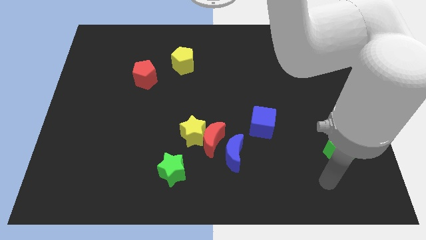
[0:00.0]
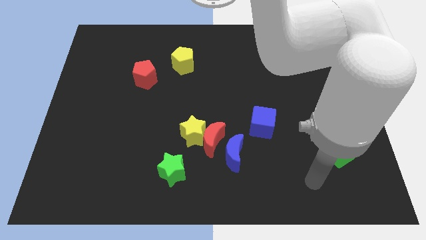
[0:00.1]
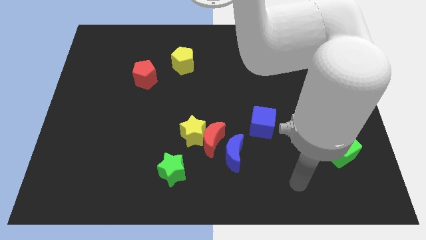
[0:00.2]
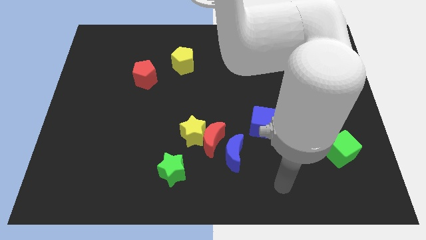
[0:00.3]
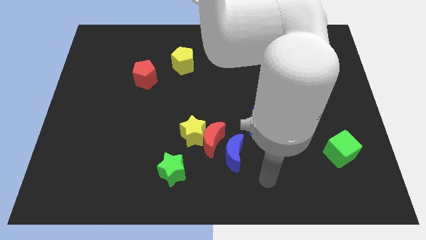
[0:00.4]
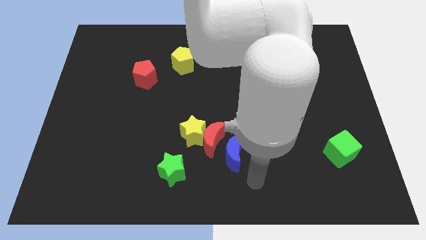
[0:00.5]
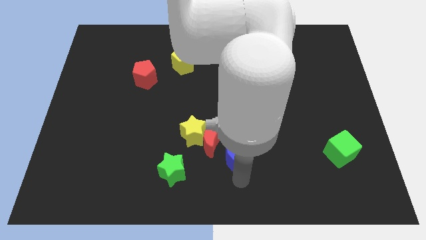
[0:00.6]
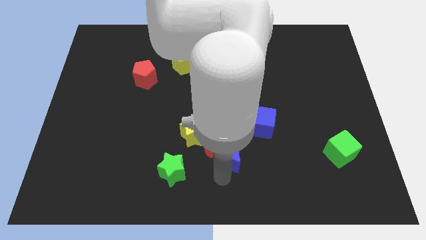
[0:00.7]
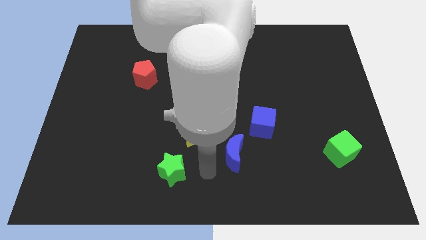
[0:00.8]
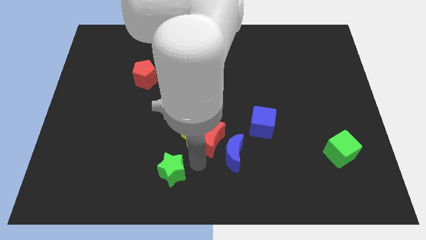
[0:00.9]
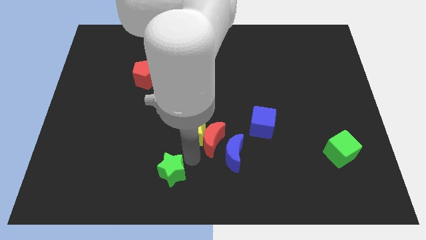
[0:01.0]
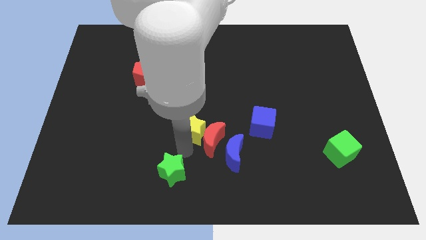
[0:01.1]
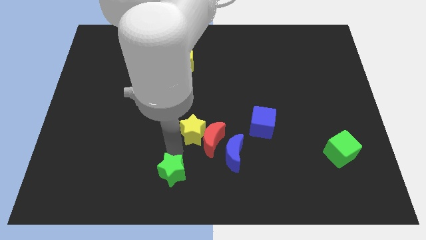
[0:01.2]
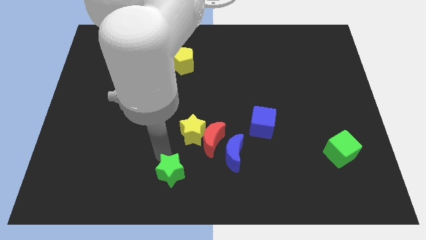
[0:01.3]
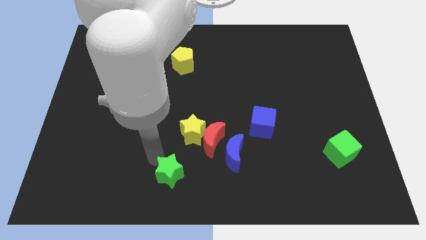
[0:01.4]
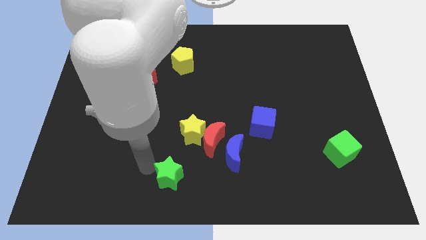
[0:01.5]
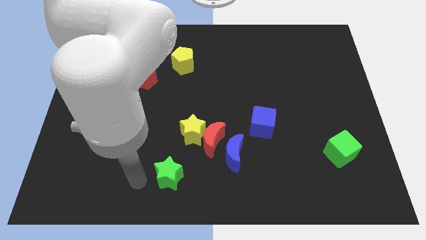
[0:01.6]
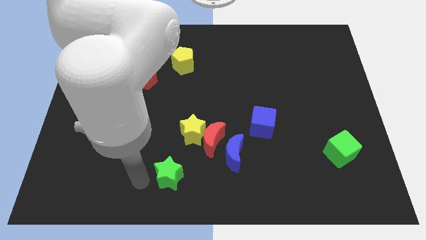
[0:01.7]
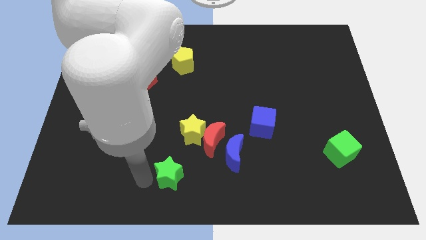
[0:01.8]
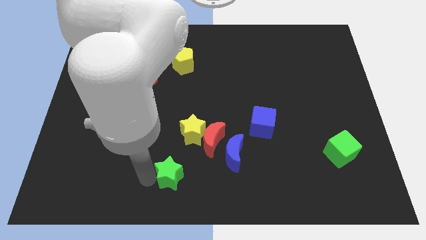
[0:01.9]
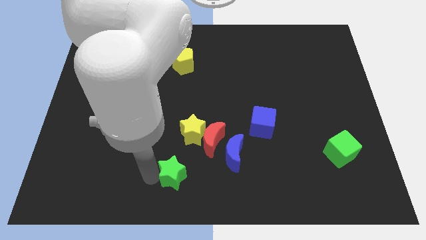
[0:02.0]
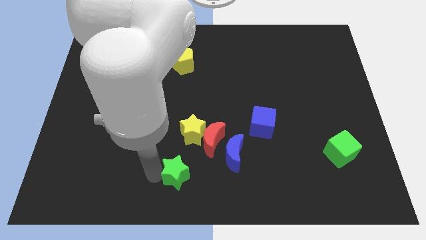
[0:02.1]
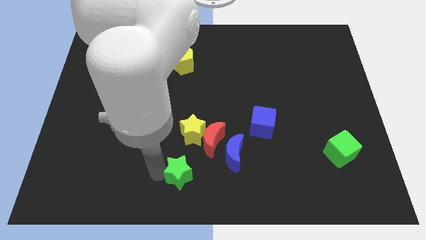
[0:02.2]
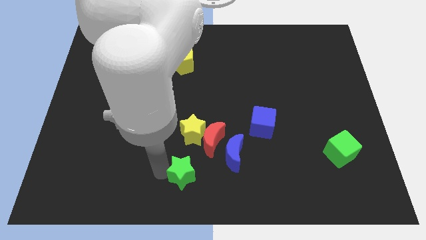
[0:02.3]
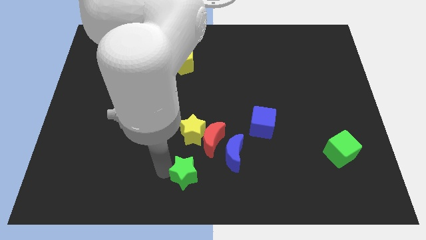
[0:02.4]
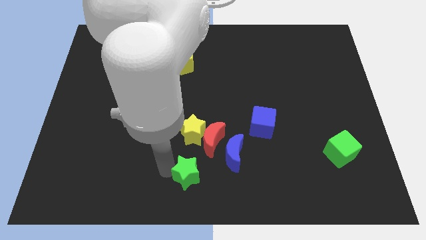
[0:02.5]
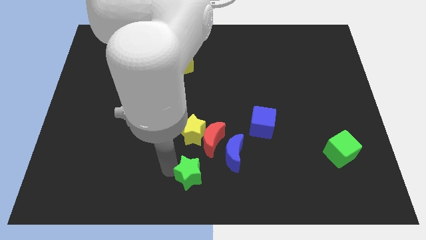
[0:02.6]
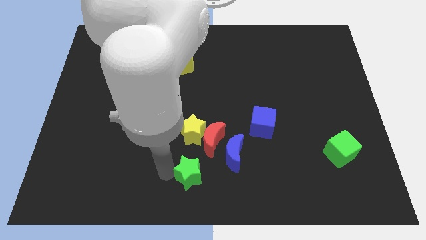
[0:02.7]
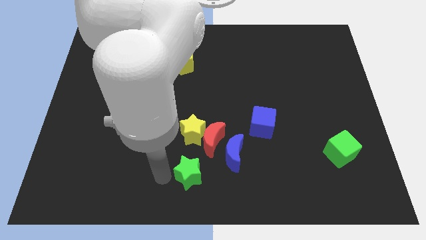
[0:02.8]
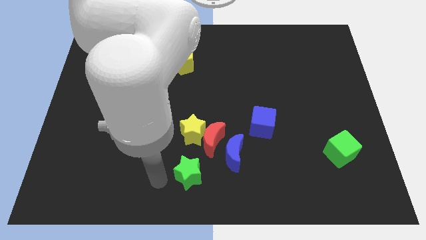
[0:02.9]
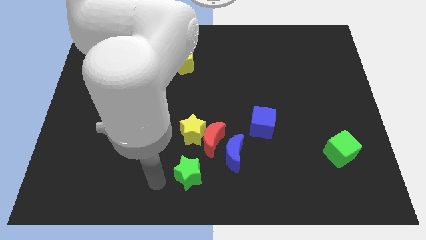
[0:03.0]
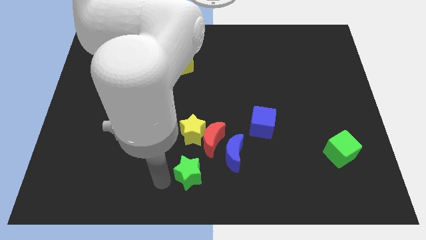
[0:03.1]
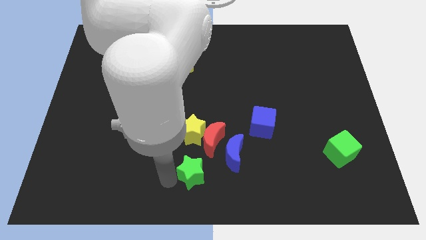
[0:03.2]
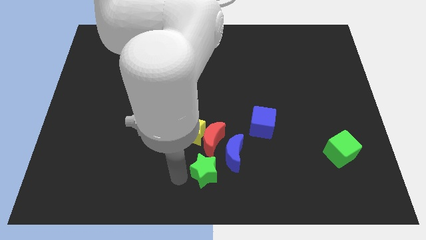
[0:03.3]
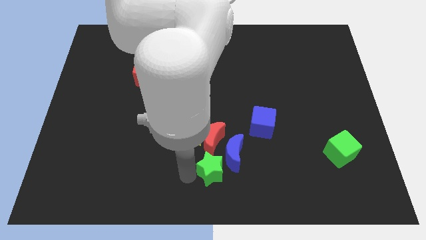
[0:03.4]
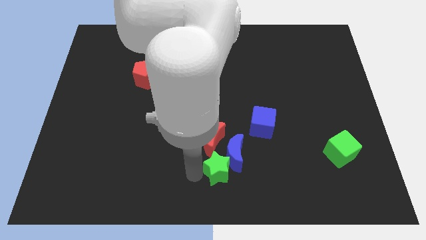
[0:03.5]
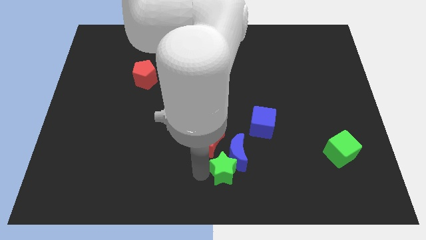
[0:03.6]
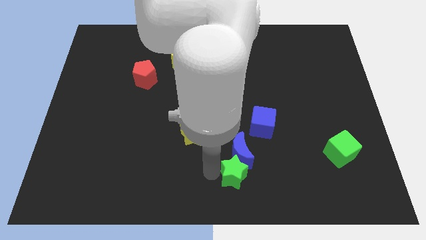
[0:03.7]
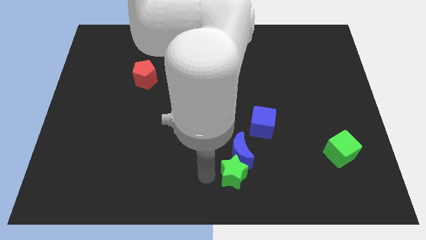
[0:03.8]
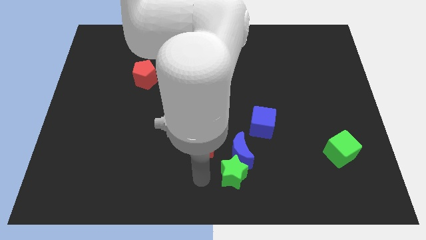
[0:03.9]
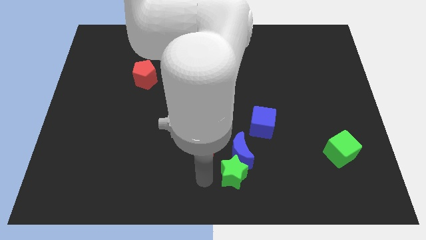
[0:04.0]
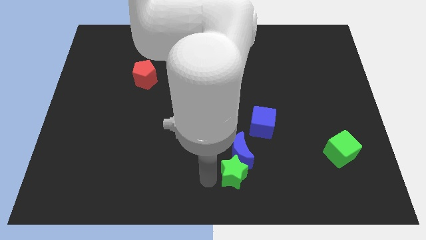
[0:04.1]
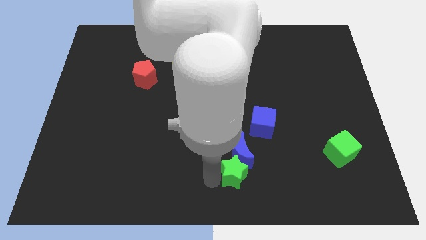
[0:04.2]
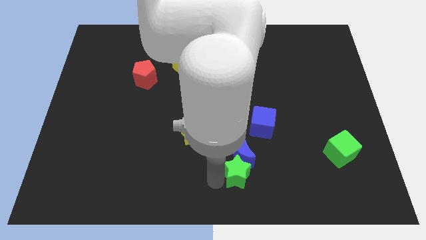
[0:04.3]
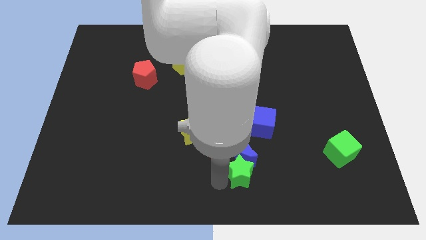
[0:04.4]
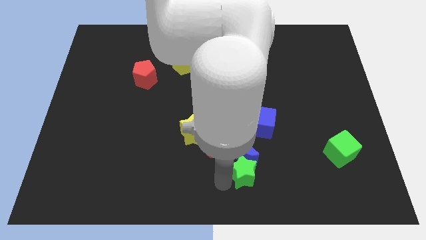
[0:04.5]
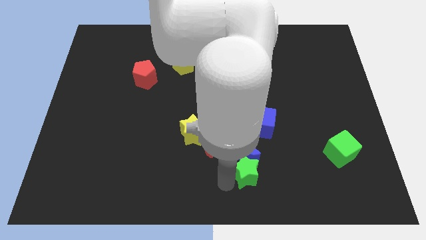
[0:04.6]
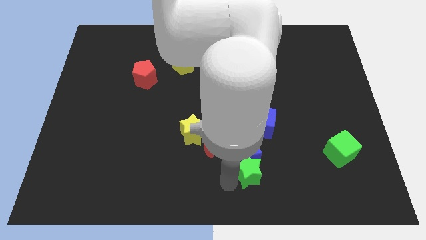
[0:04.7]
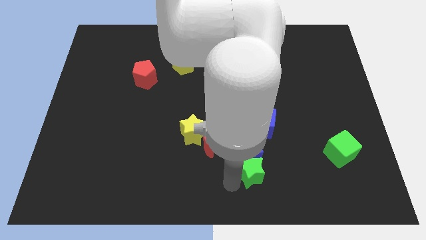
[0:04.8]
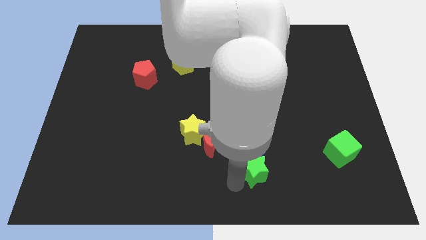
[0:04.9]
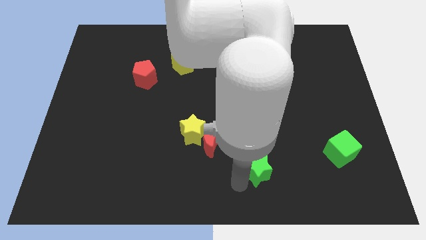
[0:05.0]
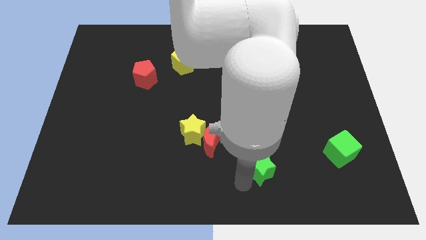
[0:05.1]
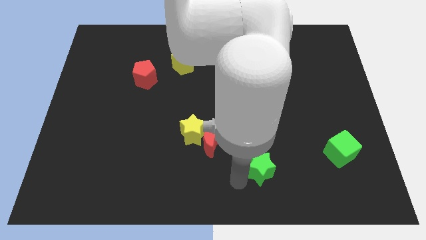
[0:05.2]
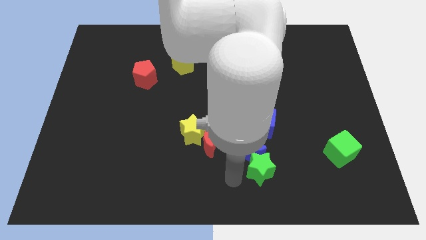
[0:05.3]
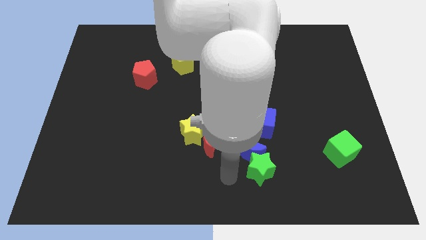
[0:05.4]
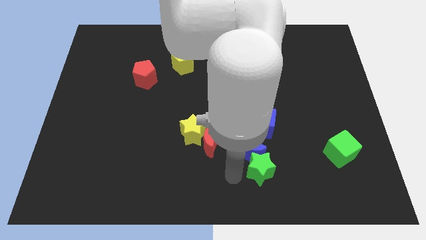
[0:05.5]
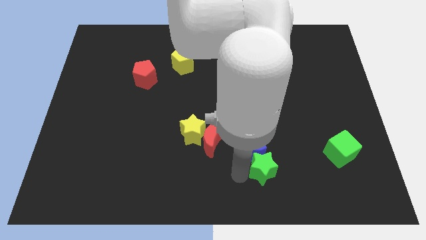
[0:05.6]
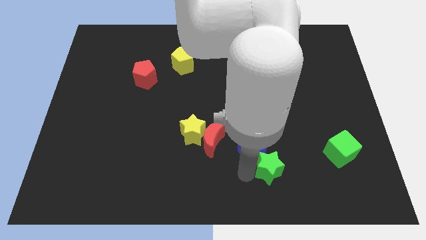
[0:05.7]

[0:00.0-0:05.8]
push the green star right

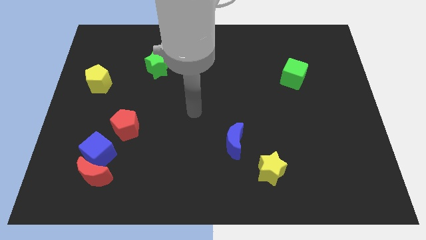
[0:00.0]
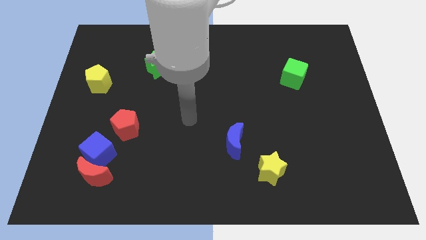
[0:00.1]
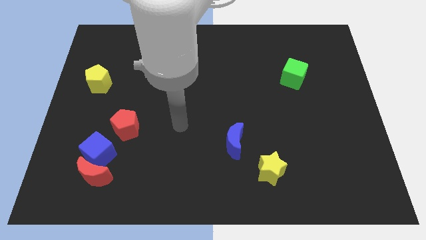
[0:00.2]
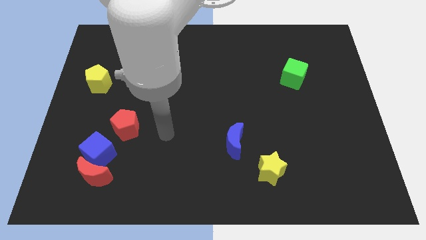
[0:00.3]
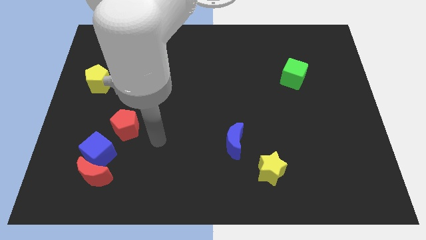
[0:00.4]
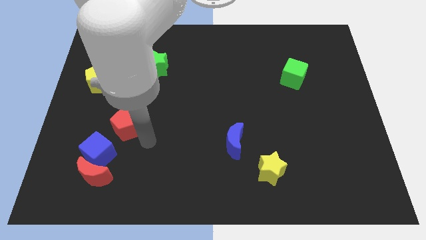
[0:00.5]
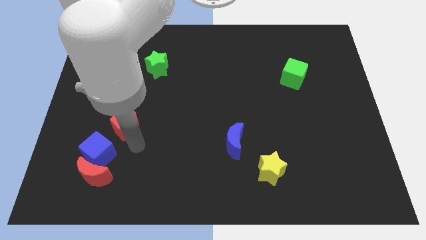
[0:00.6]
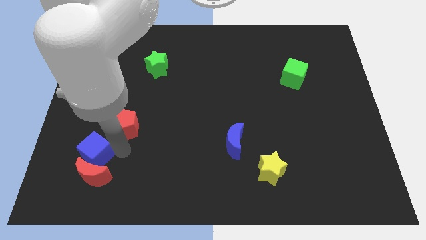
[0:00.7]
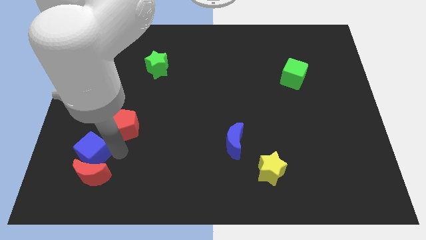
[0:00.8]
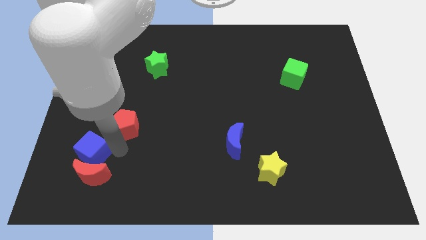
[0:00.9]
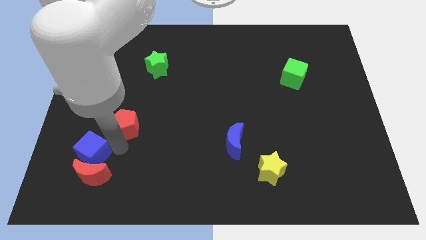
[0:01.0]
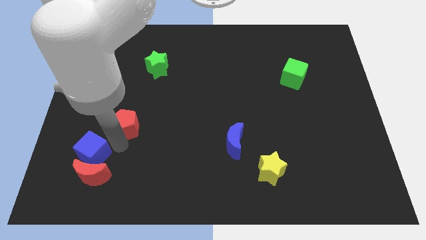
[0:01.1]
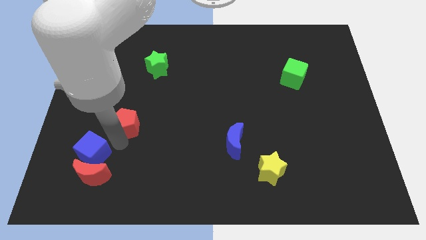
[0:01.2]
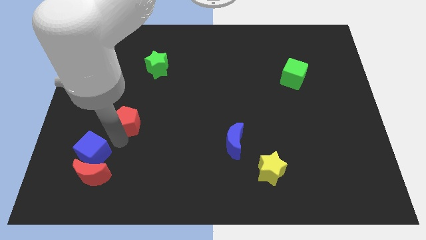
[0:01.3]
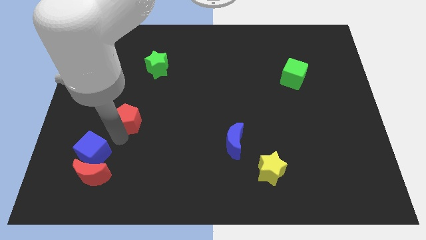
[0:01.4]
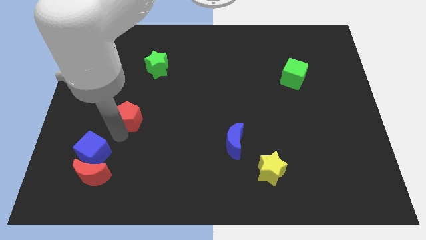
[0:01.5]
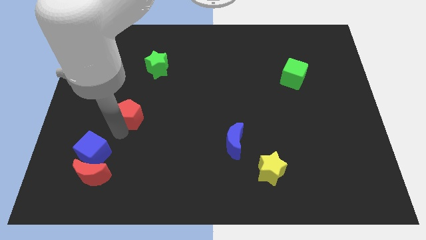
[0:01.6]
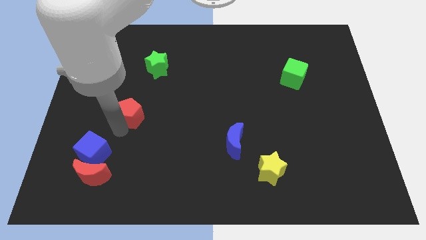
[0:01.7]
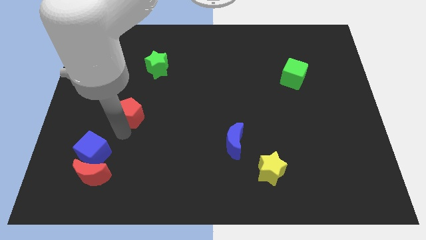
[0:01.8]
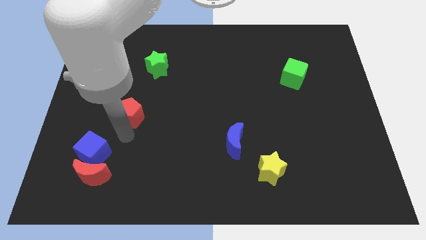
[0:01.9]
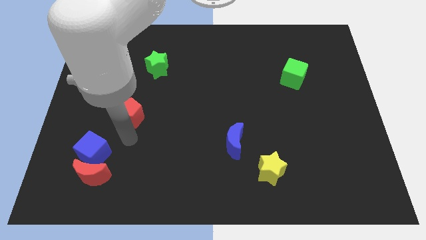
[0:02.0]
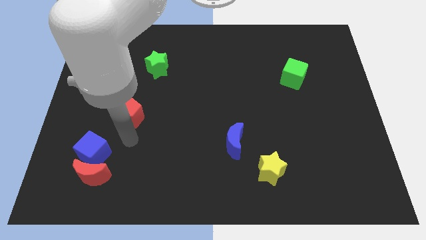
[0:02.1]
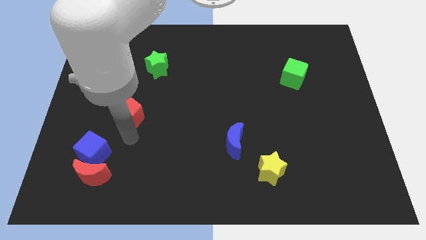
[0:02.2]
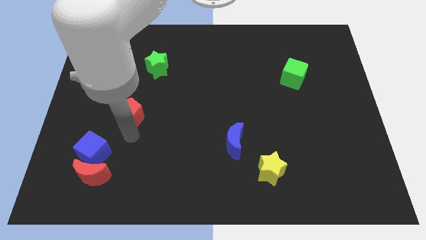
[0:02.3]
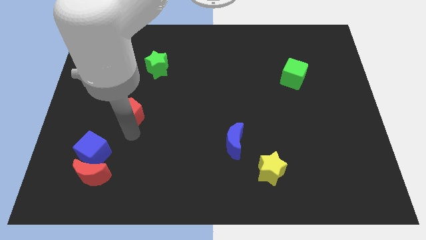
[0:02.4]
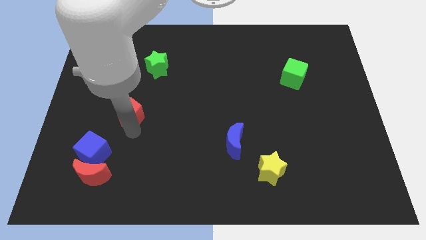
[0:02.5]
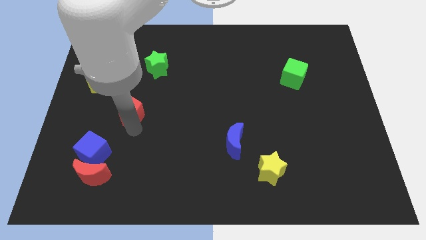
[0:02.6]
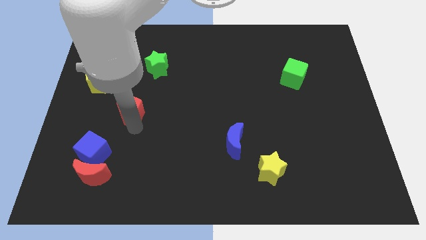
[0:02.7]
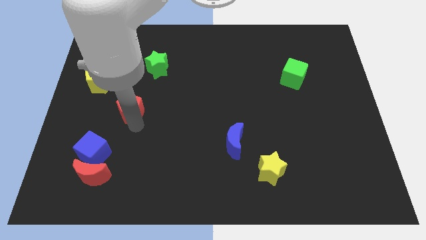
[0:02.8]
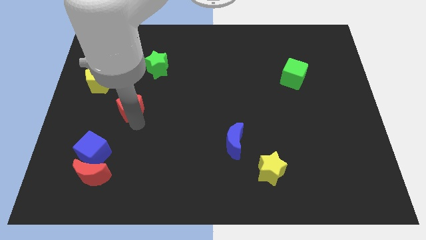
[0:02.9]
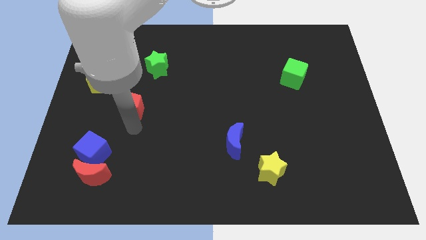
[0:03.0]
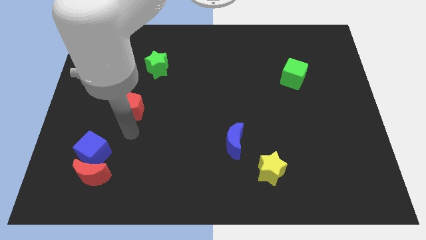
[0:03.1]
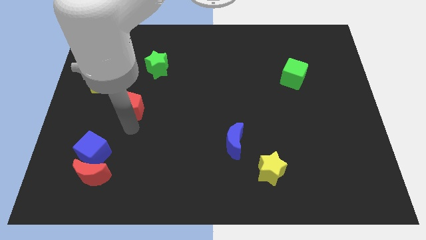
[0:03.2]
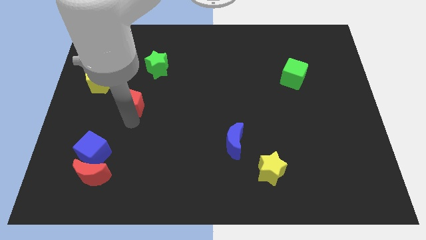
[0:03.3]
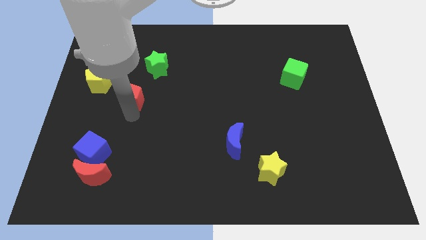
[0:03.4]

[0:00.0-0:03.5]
push the red pentagon upwards somewhat
